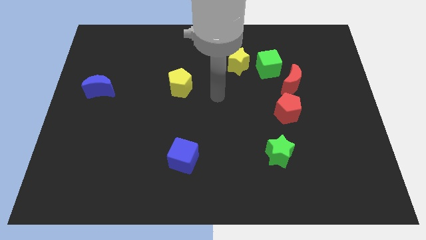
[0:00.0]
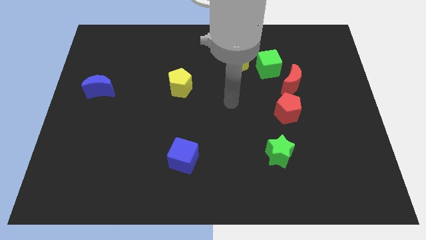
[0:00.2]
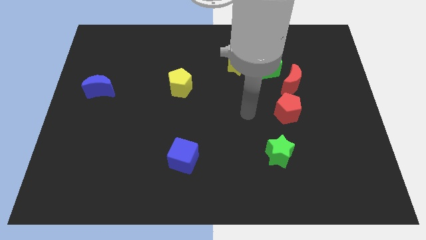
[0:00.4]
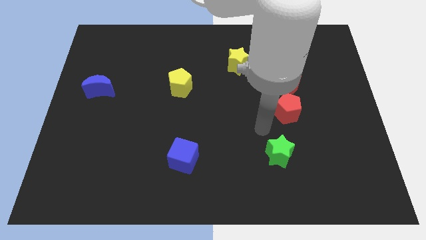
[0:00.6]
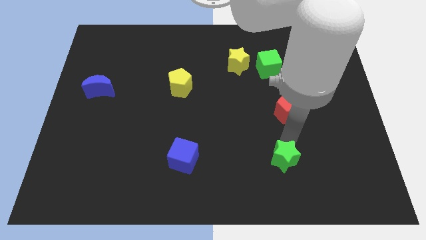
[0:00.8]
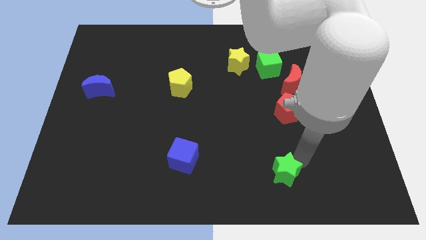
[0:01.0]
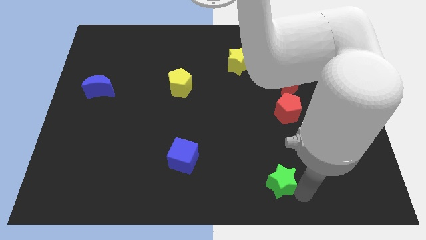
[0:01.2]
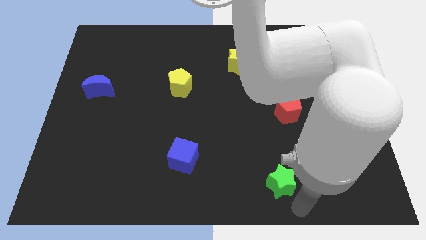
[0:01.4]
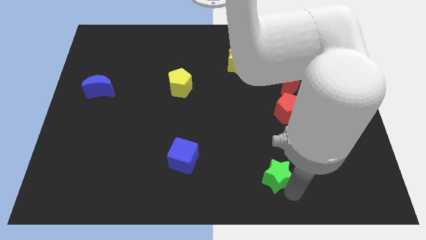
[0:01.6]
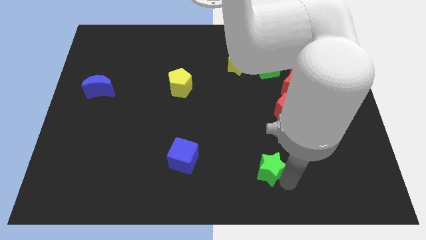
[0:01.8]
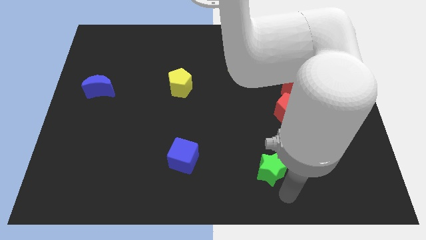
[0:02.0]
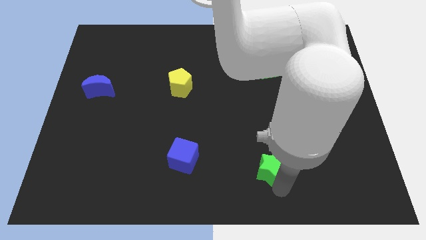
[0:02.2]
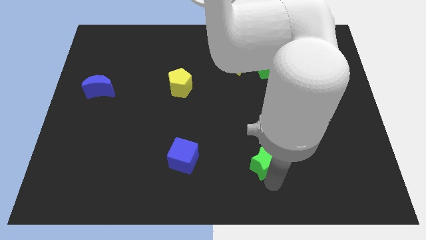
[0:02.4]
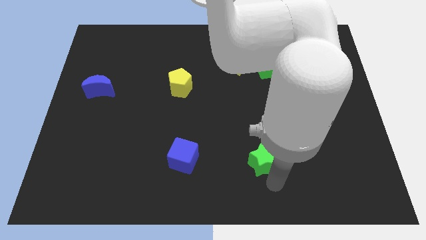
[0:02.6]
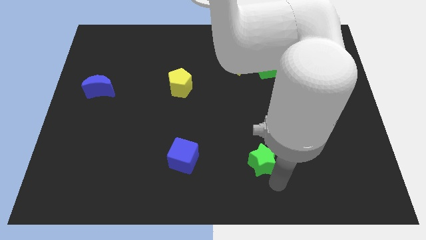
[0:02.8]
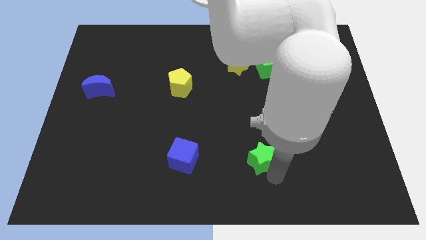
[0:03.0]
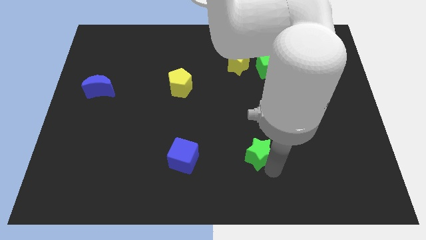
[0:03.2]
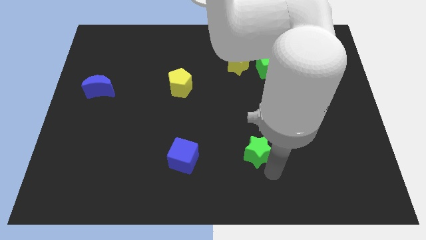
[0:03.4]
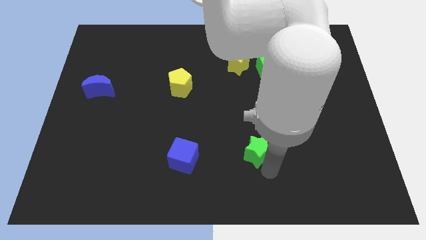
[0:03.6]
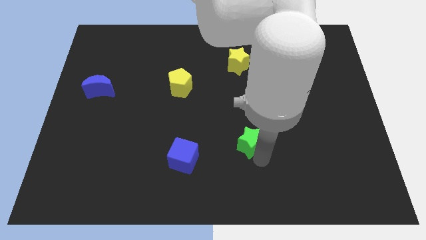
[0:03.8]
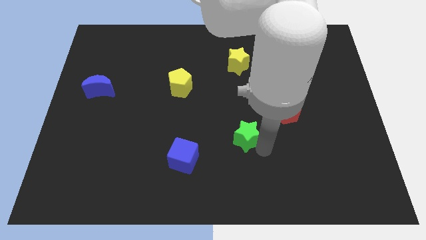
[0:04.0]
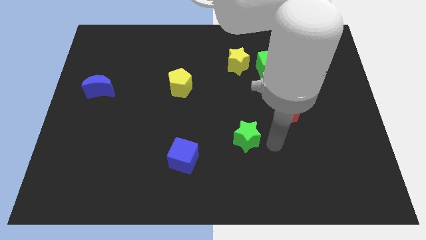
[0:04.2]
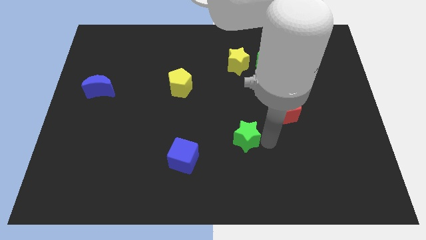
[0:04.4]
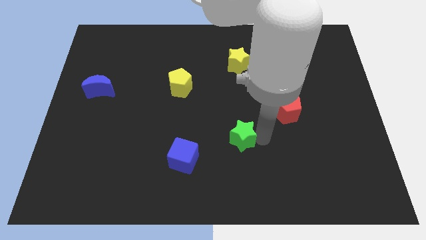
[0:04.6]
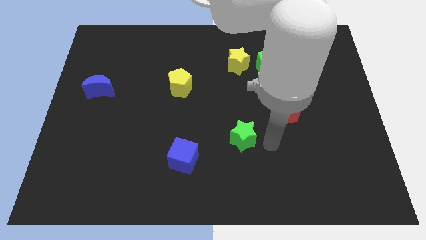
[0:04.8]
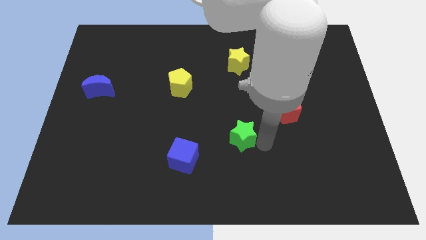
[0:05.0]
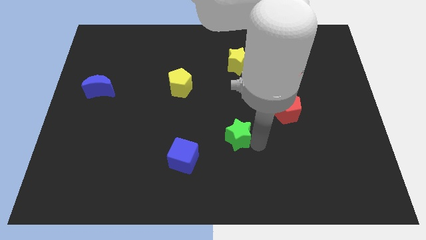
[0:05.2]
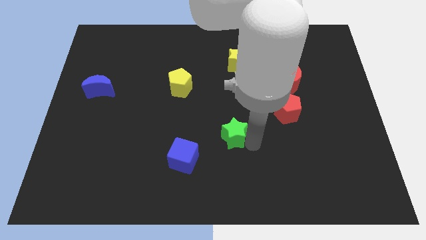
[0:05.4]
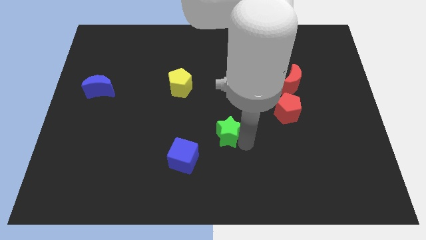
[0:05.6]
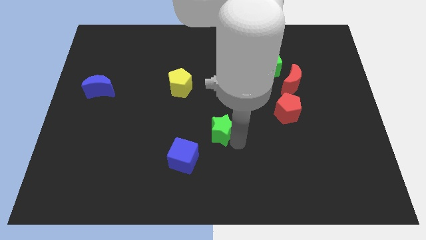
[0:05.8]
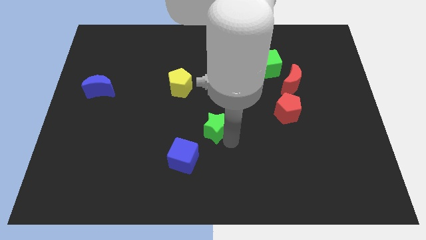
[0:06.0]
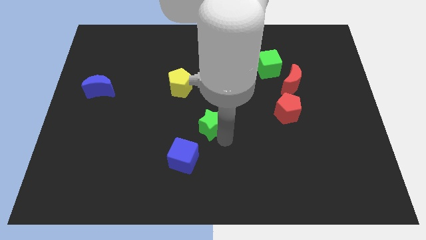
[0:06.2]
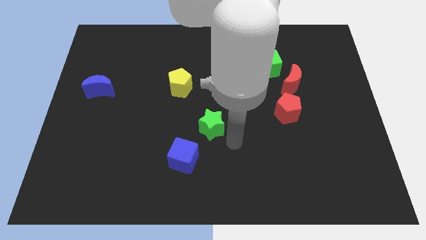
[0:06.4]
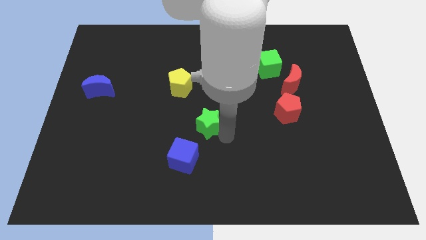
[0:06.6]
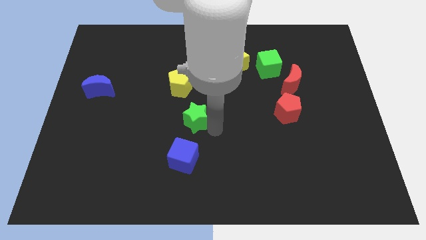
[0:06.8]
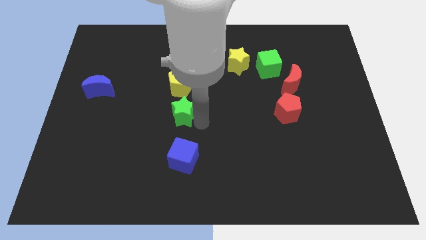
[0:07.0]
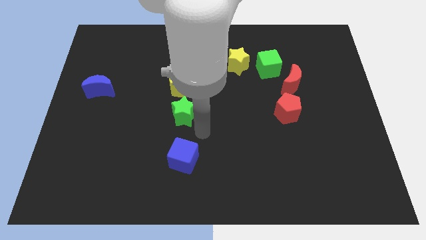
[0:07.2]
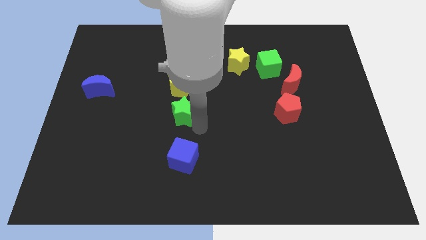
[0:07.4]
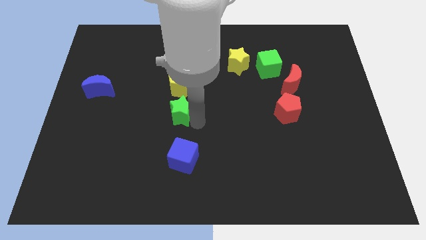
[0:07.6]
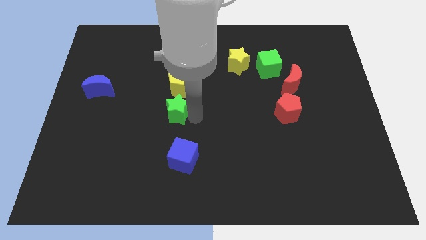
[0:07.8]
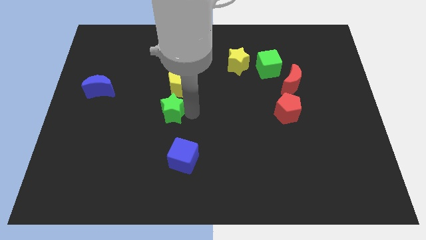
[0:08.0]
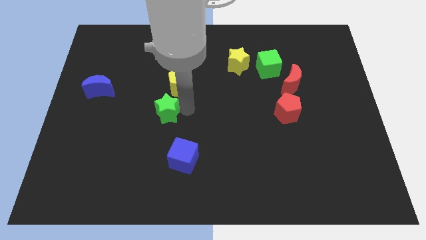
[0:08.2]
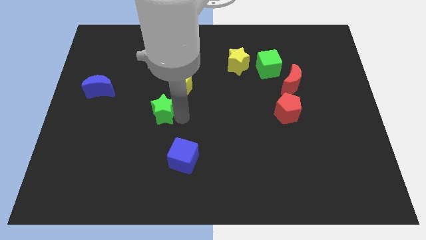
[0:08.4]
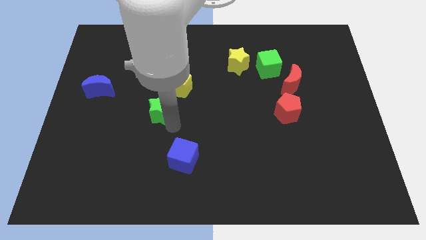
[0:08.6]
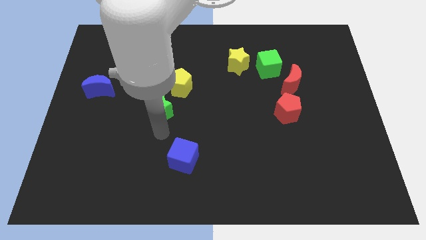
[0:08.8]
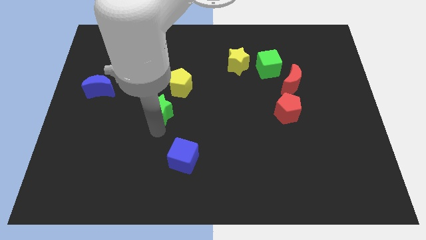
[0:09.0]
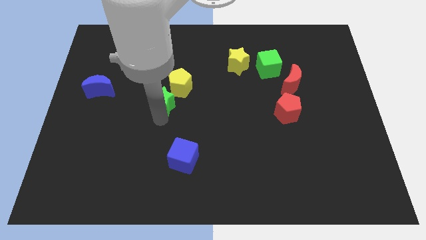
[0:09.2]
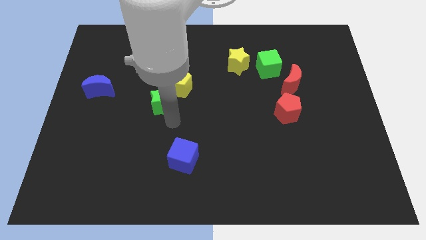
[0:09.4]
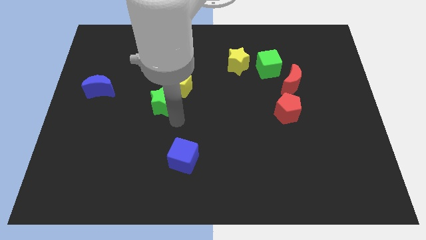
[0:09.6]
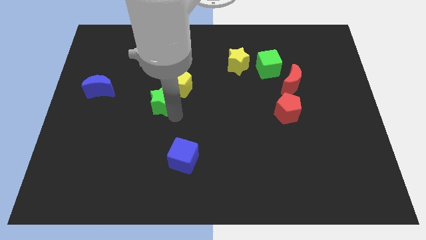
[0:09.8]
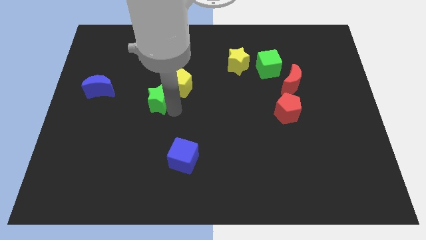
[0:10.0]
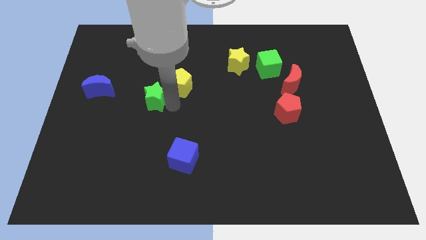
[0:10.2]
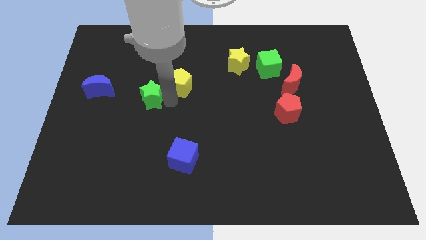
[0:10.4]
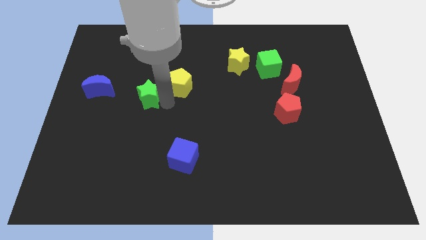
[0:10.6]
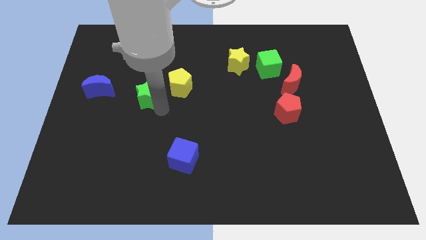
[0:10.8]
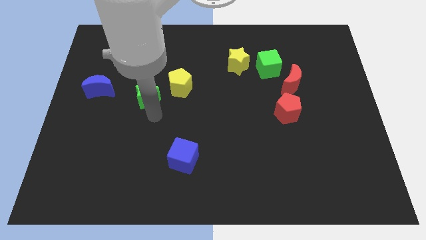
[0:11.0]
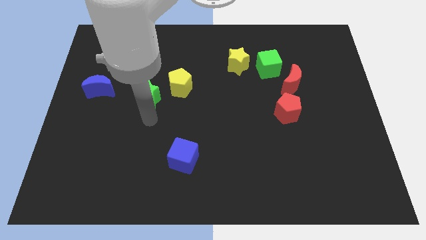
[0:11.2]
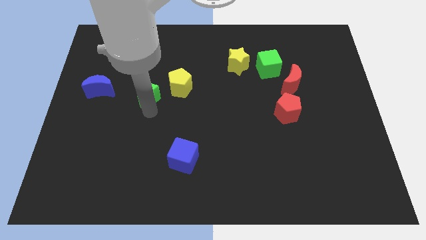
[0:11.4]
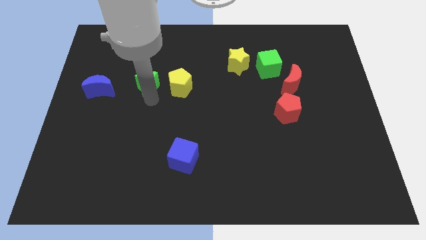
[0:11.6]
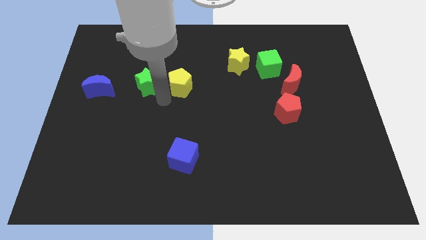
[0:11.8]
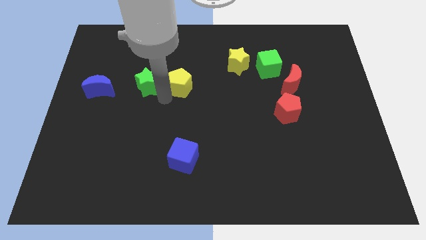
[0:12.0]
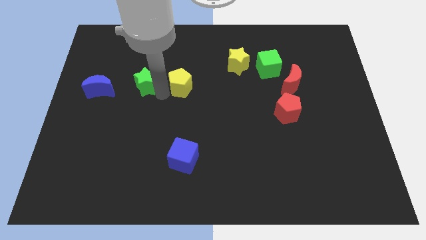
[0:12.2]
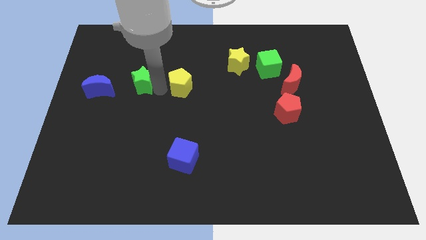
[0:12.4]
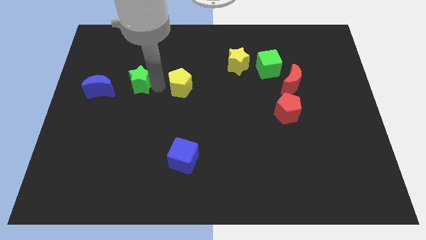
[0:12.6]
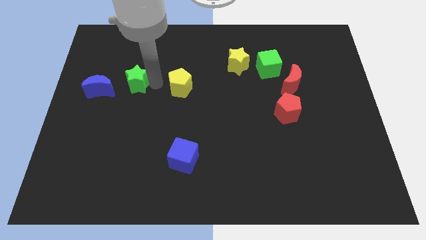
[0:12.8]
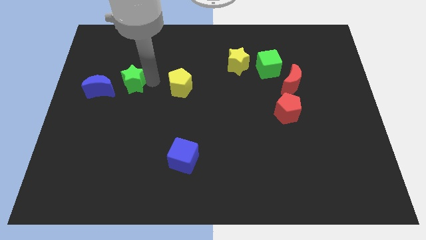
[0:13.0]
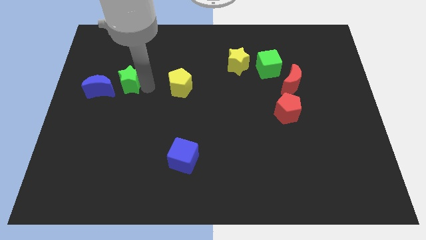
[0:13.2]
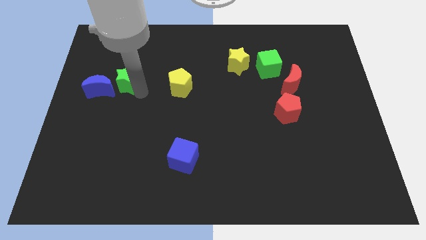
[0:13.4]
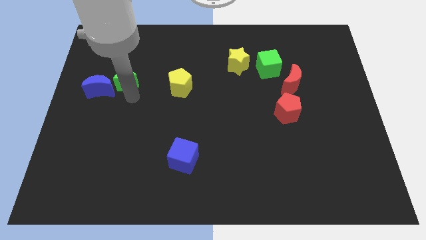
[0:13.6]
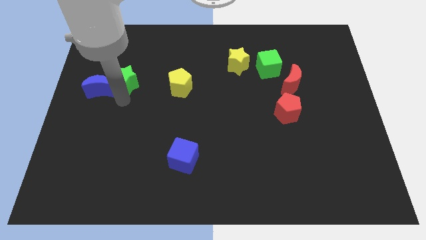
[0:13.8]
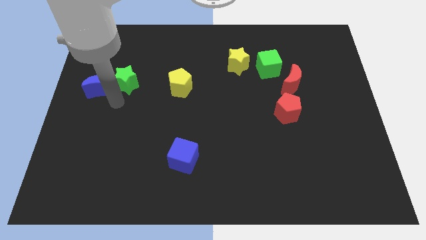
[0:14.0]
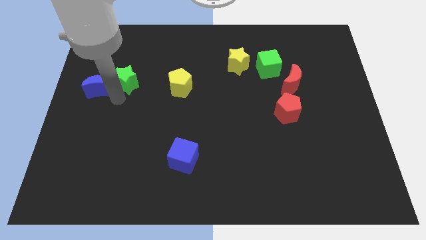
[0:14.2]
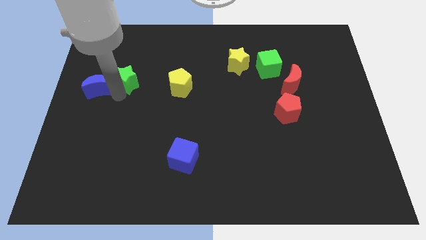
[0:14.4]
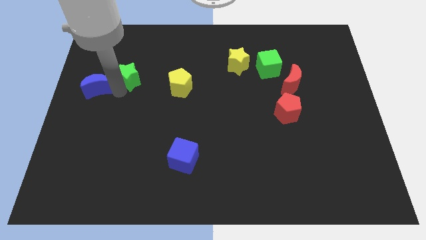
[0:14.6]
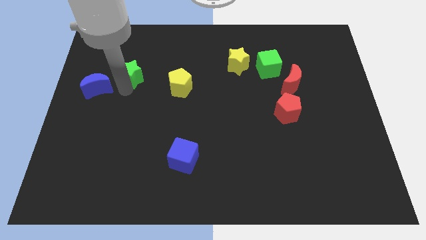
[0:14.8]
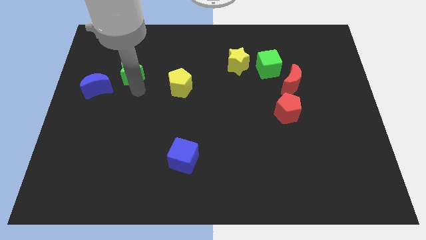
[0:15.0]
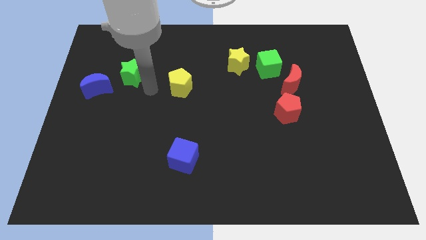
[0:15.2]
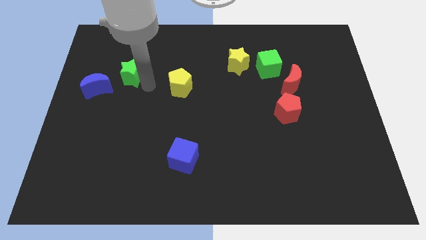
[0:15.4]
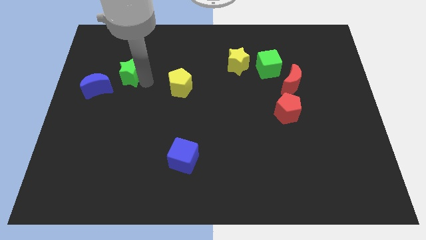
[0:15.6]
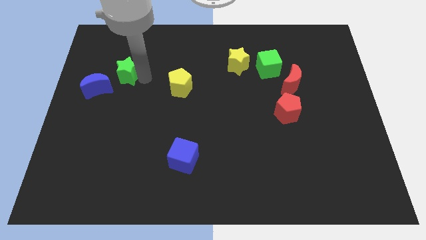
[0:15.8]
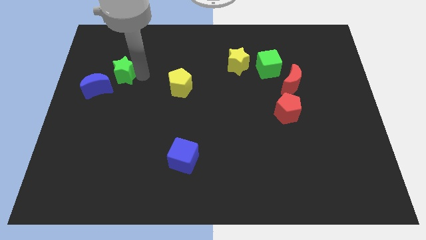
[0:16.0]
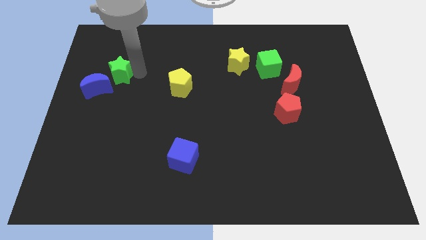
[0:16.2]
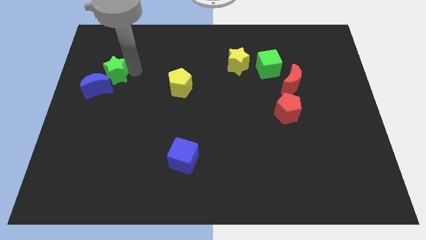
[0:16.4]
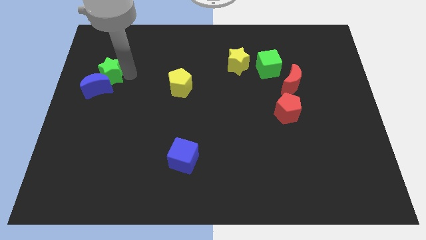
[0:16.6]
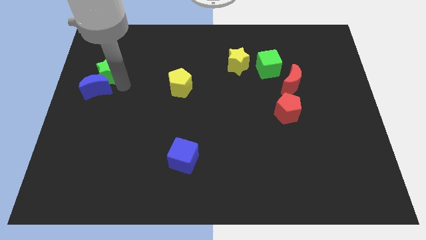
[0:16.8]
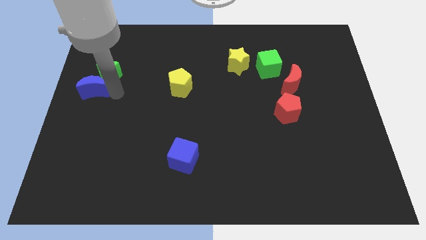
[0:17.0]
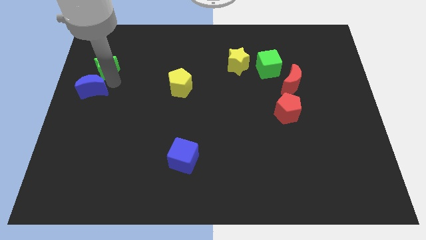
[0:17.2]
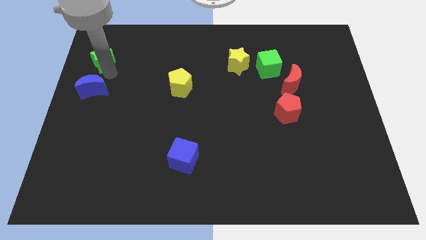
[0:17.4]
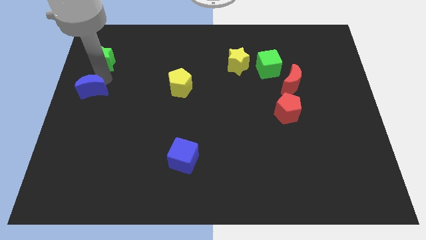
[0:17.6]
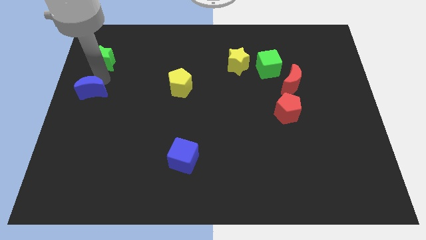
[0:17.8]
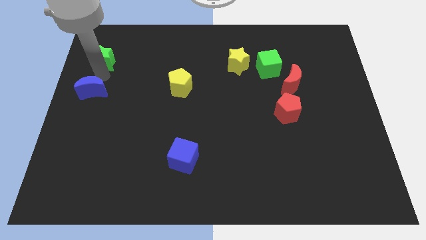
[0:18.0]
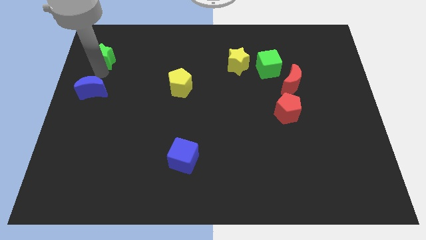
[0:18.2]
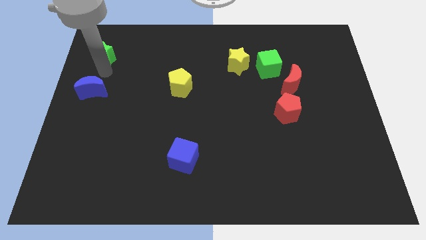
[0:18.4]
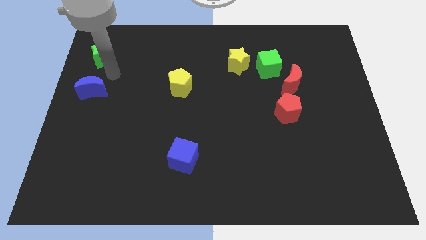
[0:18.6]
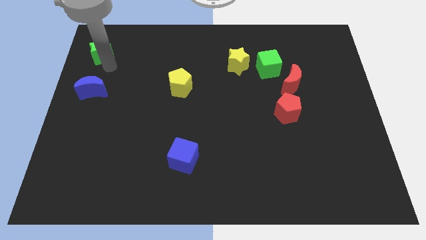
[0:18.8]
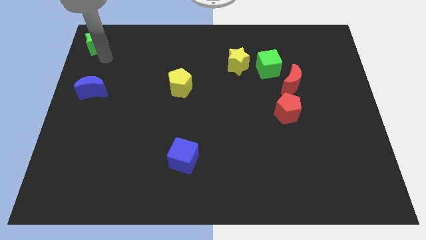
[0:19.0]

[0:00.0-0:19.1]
put the green star to the upper left corner
